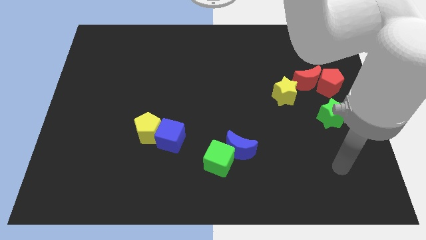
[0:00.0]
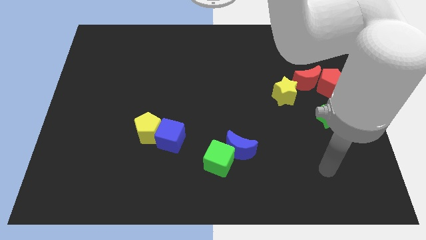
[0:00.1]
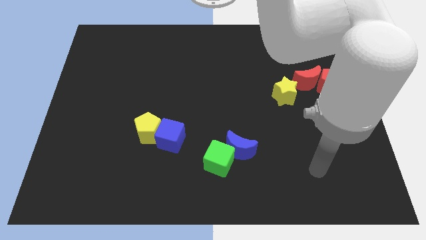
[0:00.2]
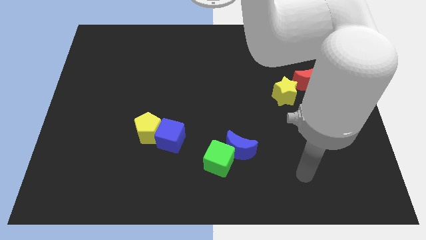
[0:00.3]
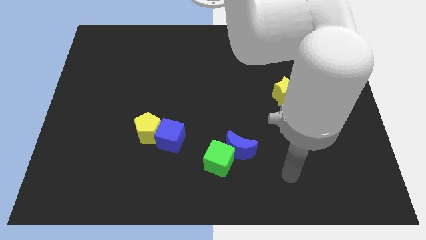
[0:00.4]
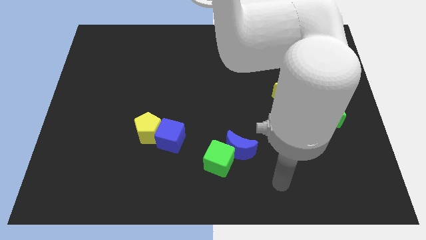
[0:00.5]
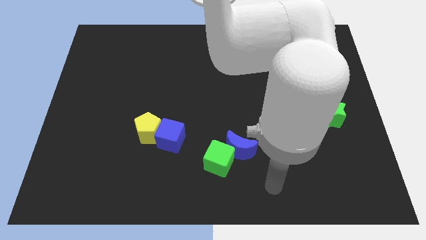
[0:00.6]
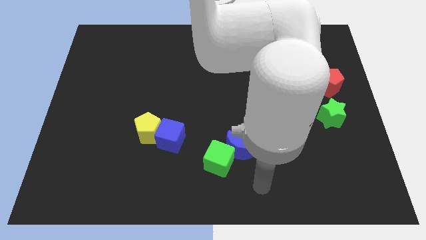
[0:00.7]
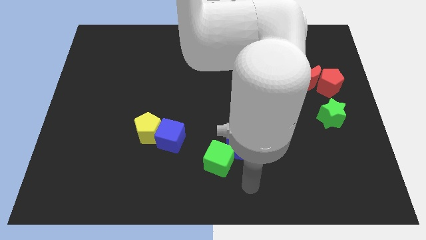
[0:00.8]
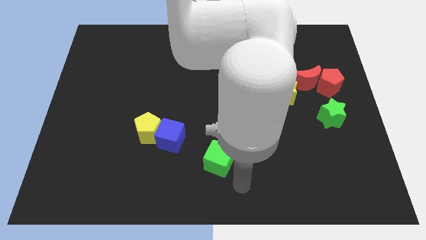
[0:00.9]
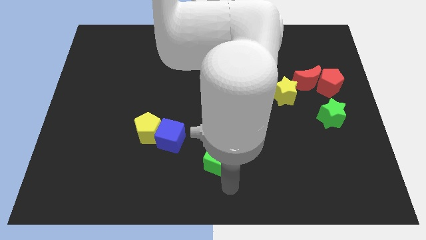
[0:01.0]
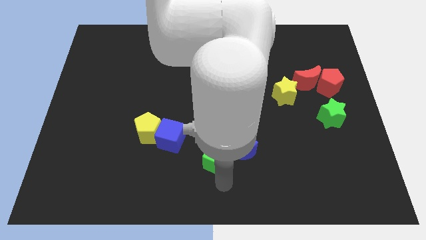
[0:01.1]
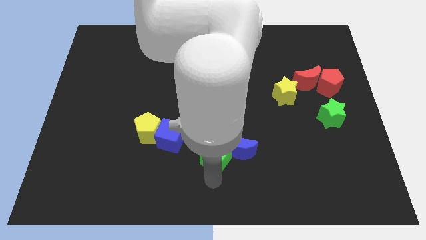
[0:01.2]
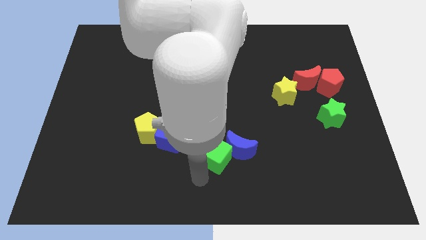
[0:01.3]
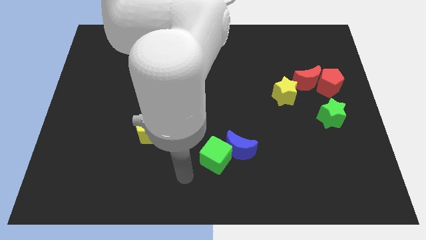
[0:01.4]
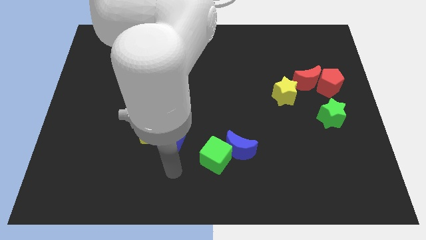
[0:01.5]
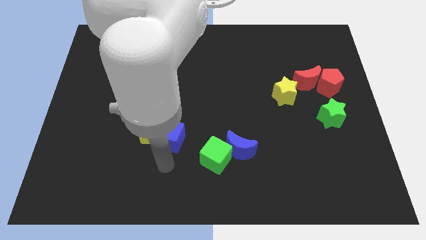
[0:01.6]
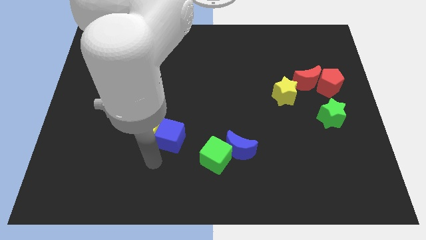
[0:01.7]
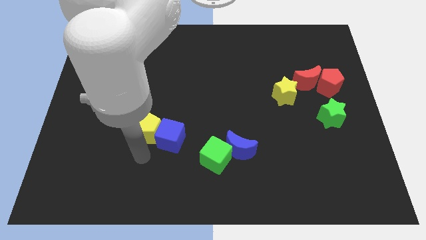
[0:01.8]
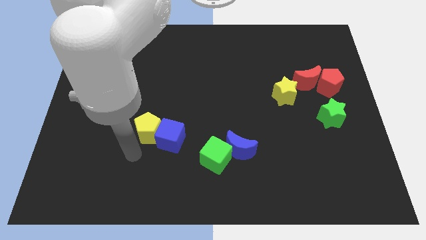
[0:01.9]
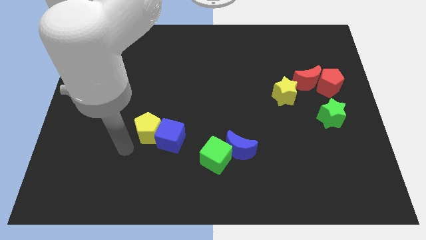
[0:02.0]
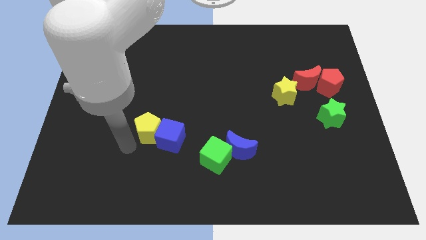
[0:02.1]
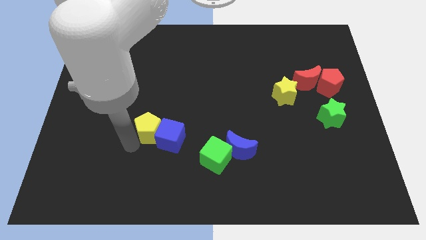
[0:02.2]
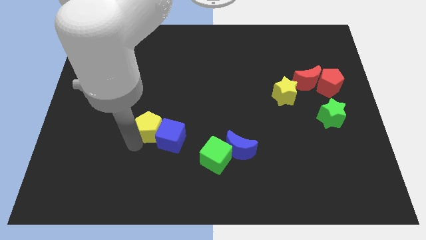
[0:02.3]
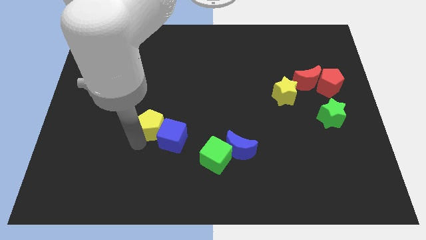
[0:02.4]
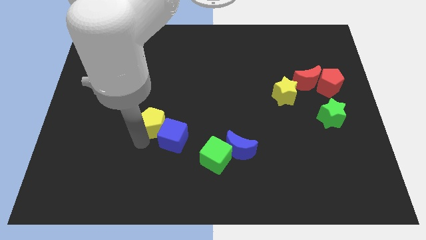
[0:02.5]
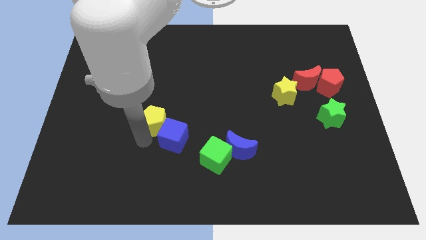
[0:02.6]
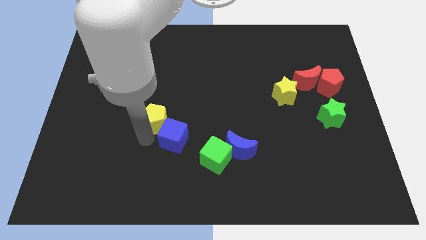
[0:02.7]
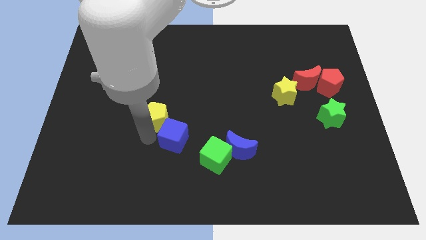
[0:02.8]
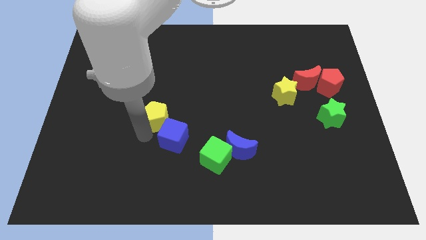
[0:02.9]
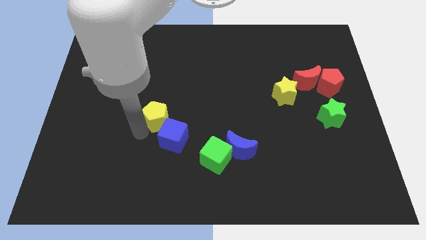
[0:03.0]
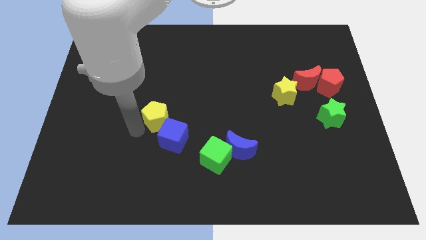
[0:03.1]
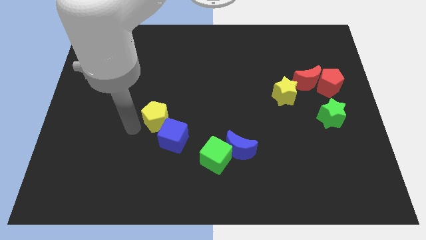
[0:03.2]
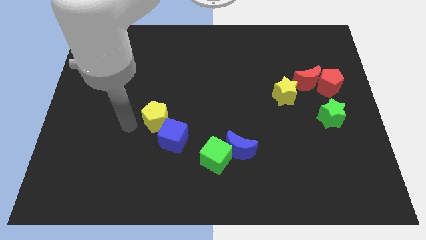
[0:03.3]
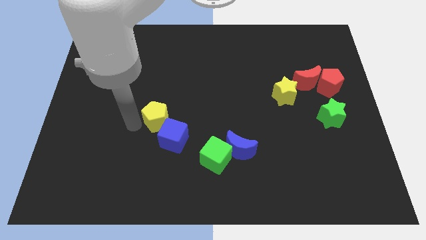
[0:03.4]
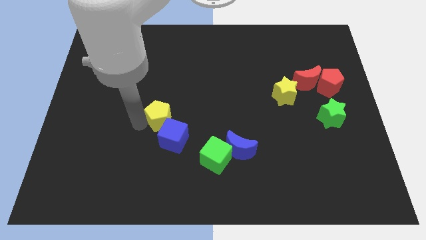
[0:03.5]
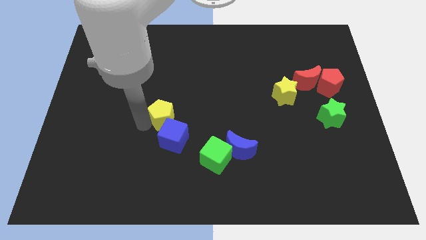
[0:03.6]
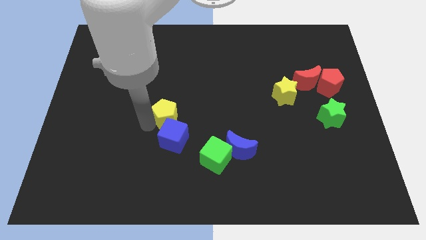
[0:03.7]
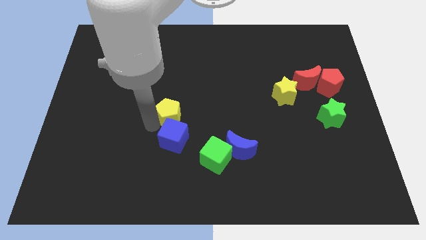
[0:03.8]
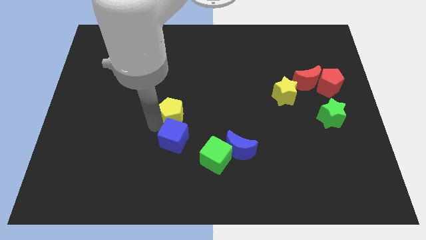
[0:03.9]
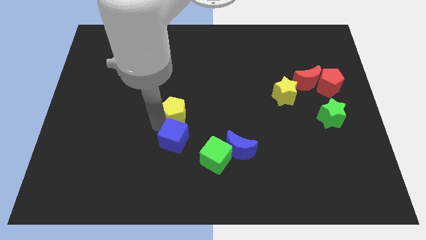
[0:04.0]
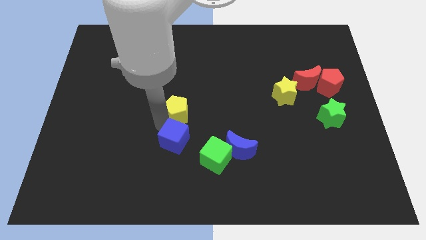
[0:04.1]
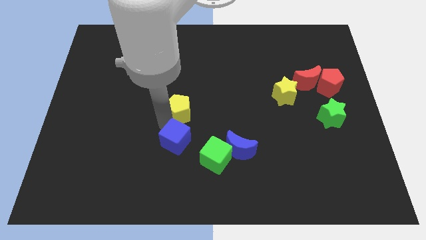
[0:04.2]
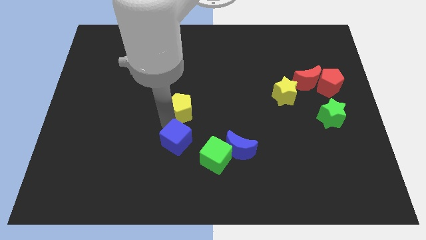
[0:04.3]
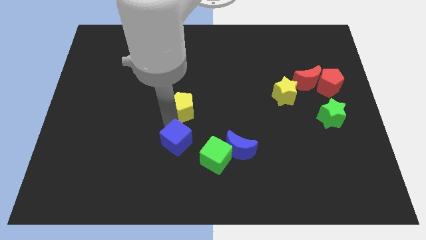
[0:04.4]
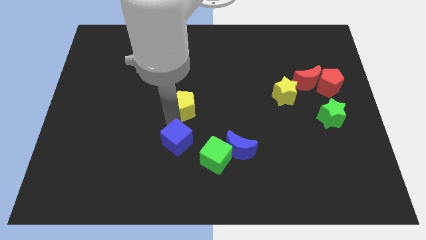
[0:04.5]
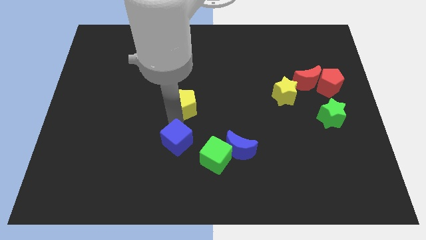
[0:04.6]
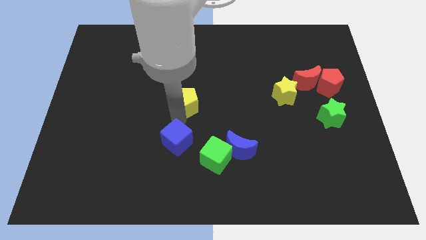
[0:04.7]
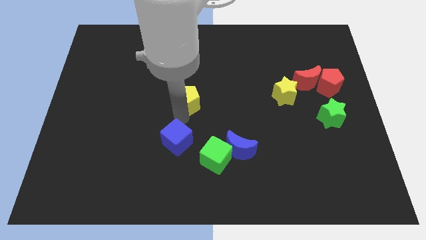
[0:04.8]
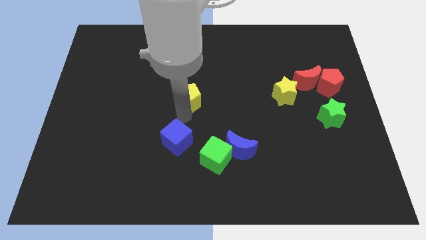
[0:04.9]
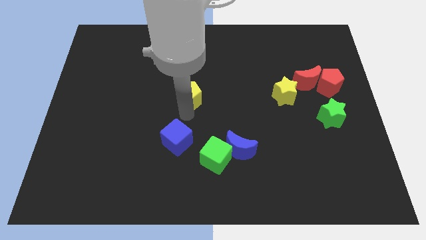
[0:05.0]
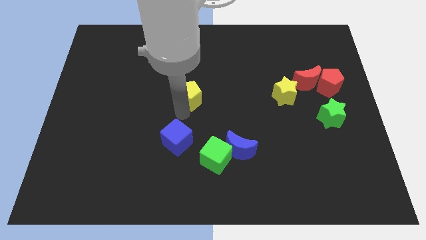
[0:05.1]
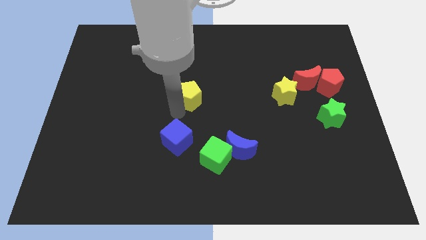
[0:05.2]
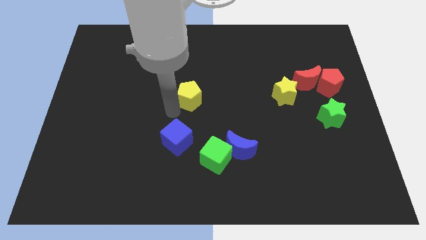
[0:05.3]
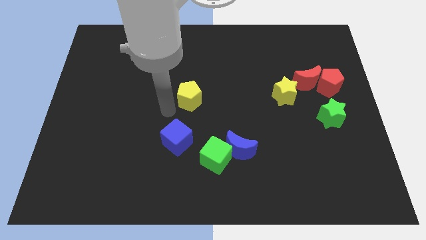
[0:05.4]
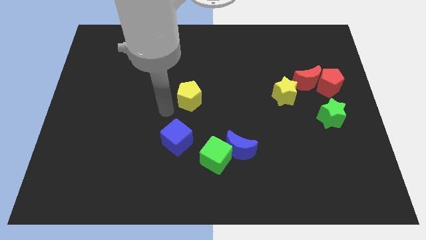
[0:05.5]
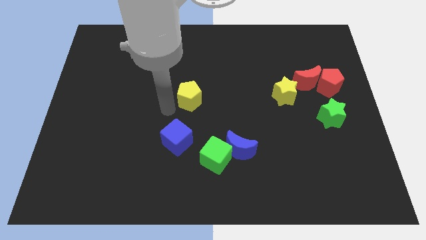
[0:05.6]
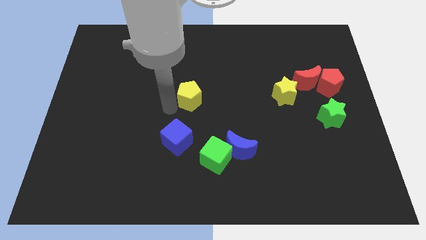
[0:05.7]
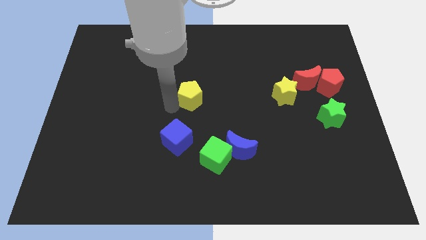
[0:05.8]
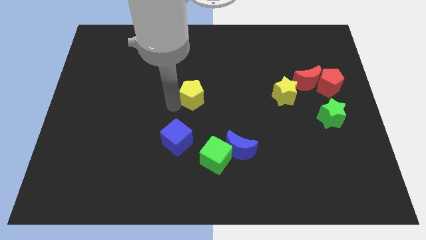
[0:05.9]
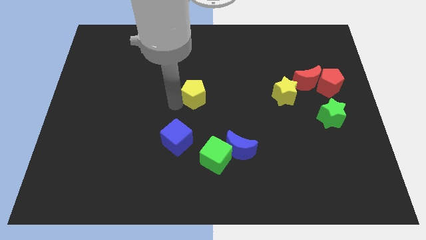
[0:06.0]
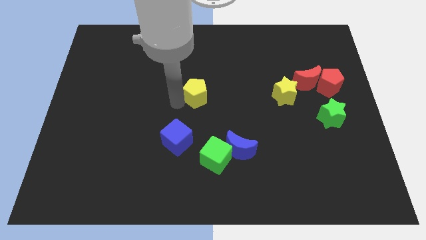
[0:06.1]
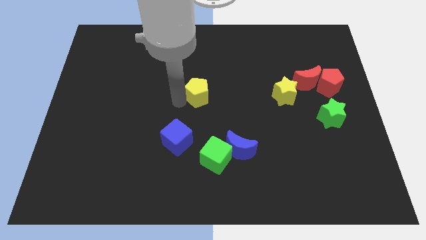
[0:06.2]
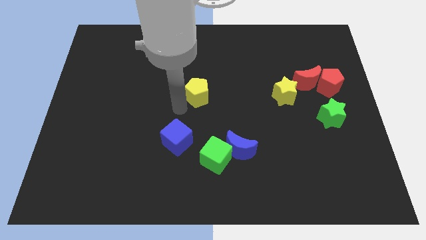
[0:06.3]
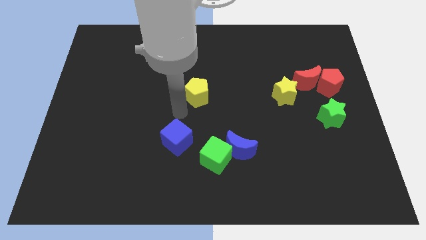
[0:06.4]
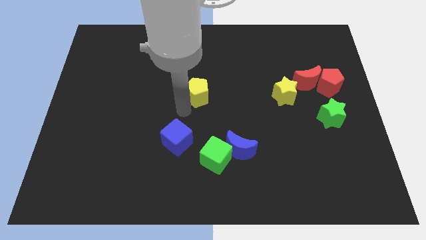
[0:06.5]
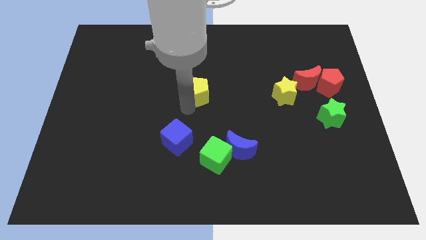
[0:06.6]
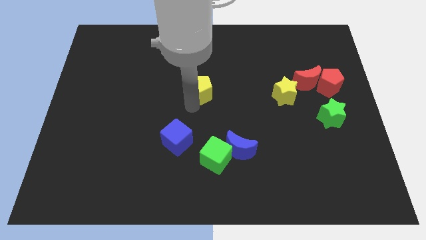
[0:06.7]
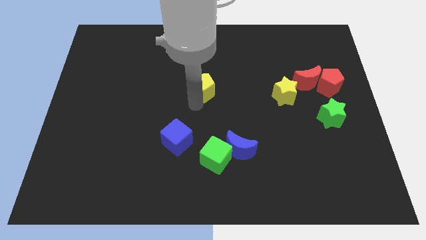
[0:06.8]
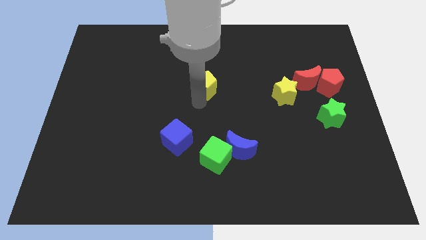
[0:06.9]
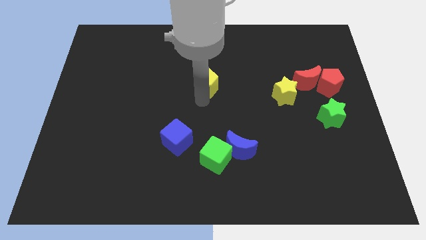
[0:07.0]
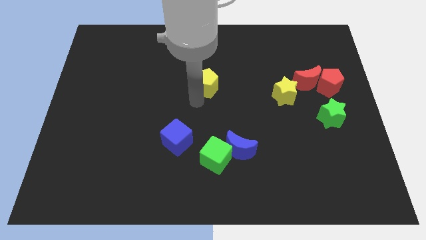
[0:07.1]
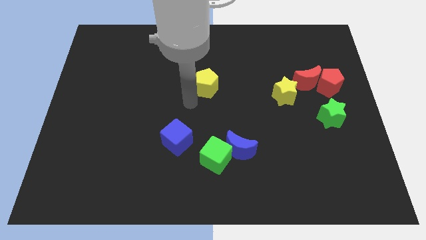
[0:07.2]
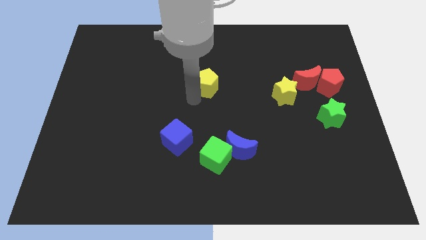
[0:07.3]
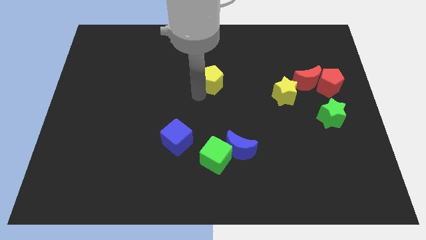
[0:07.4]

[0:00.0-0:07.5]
slide the yellow pentagon up and to the right

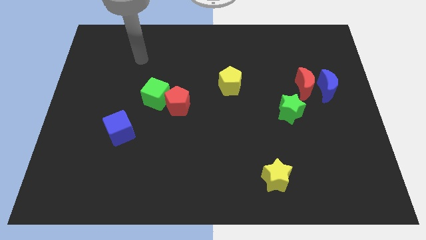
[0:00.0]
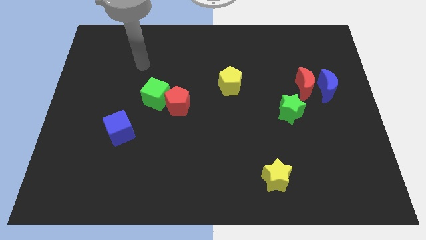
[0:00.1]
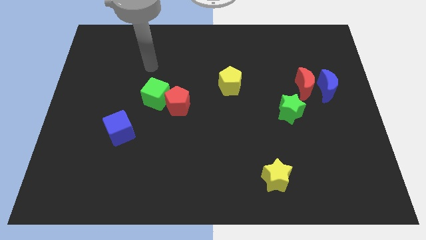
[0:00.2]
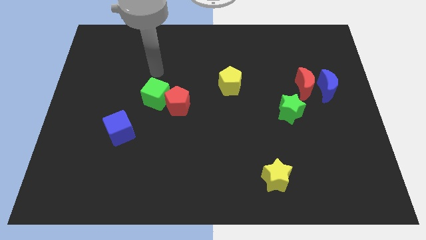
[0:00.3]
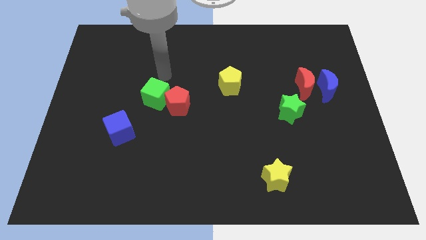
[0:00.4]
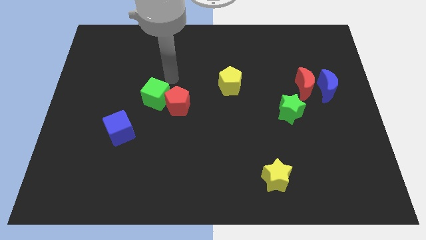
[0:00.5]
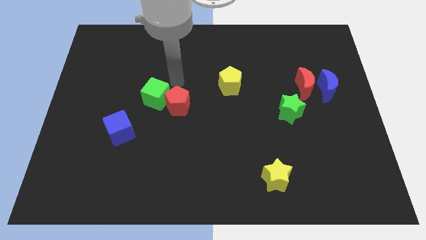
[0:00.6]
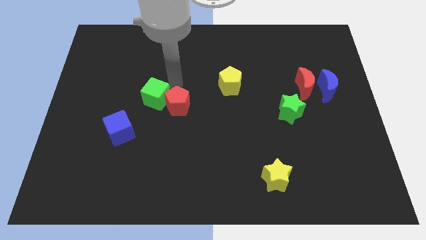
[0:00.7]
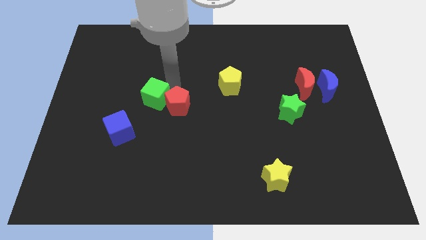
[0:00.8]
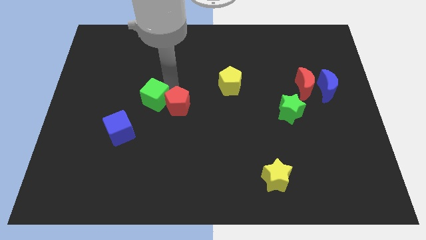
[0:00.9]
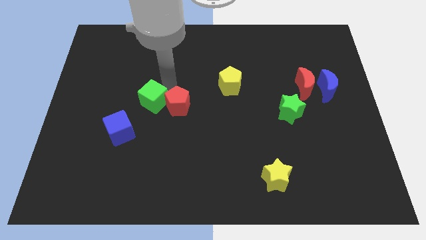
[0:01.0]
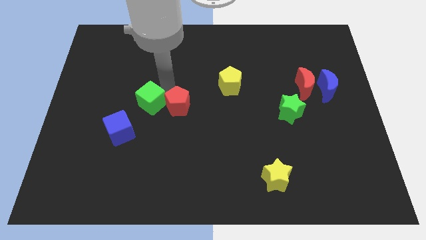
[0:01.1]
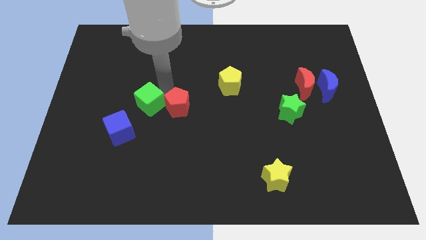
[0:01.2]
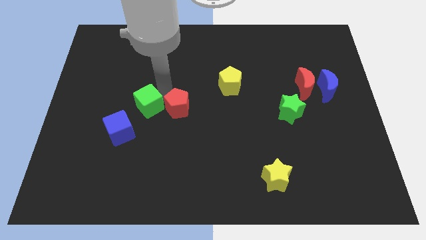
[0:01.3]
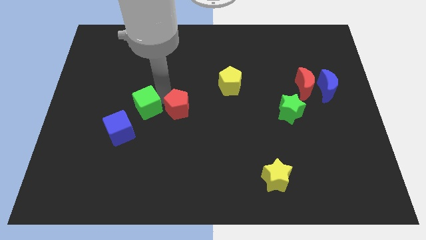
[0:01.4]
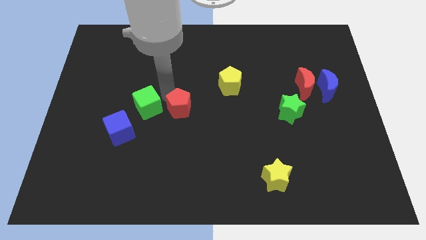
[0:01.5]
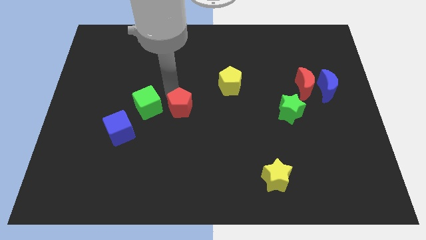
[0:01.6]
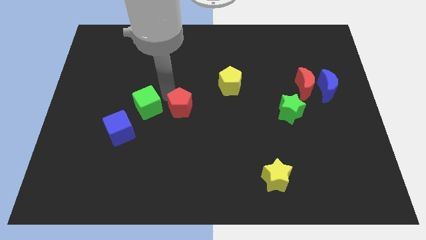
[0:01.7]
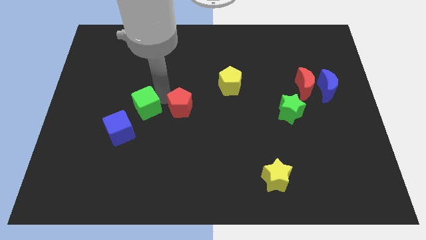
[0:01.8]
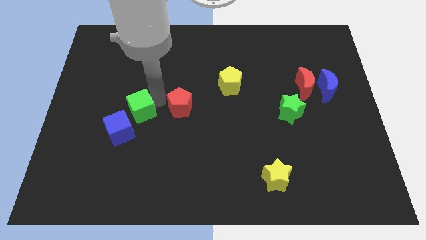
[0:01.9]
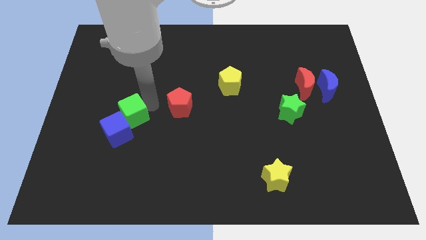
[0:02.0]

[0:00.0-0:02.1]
push the green cube a bit down and to the left
